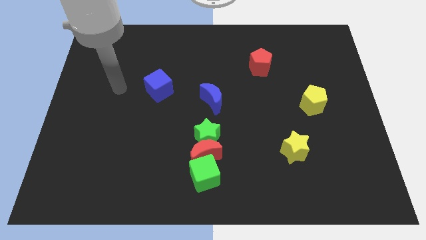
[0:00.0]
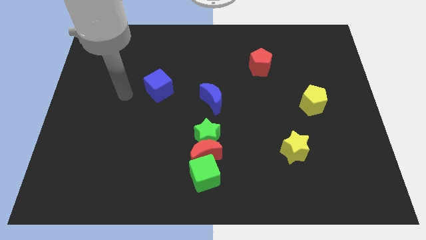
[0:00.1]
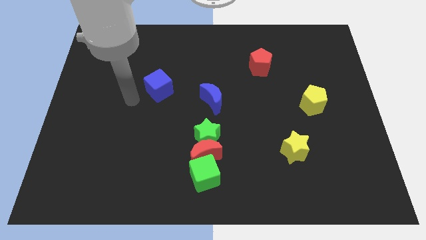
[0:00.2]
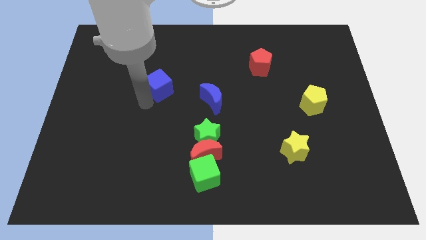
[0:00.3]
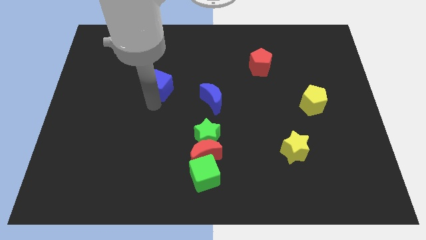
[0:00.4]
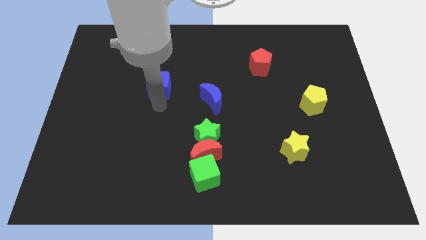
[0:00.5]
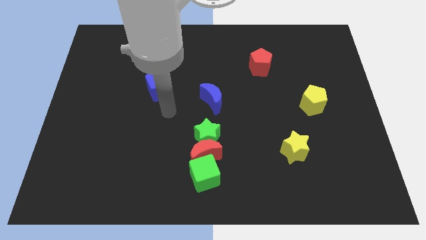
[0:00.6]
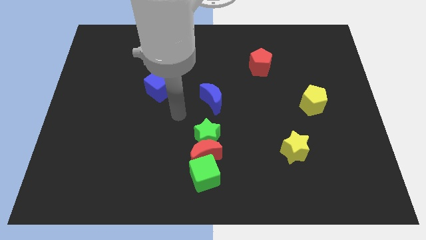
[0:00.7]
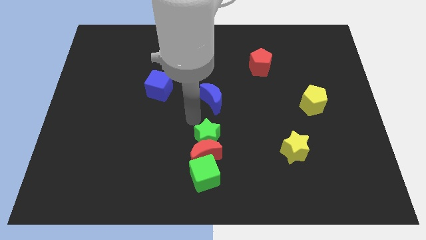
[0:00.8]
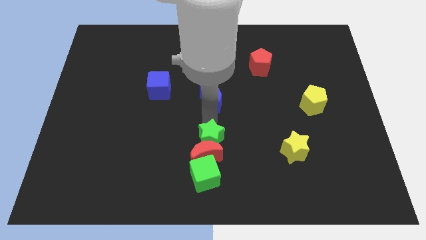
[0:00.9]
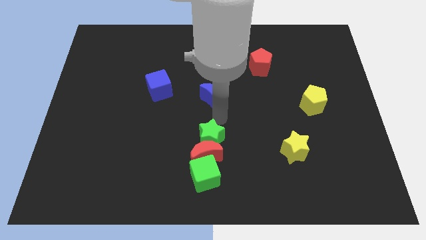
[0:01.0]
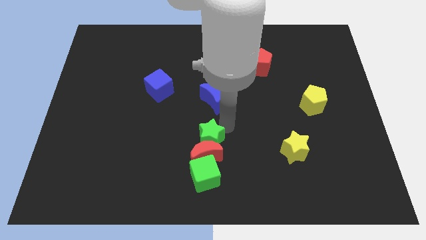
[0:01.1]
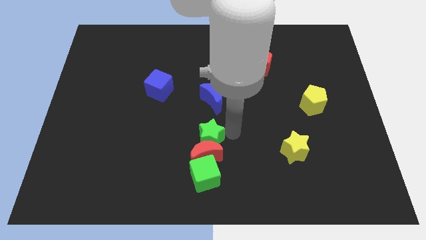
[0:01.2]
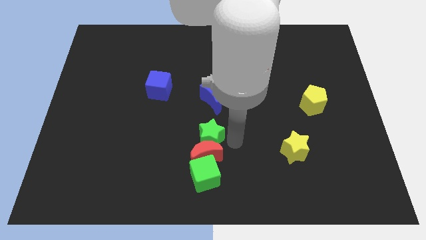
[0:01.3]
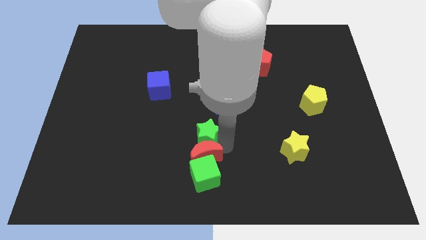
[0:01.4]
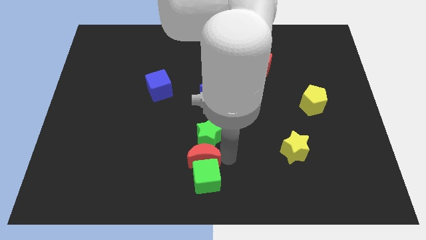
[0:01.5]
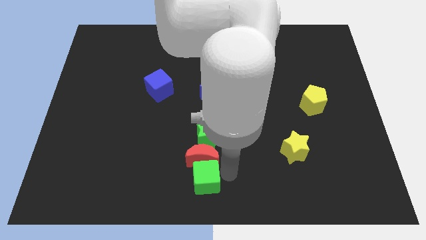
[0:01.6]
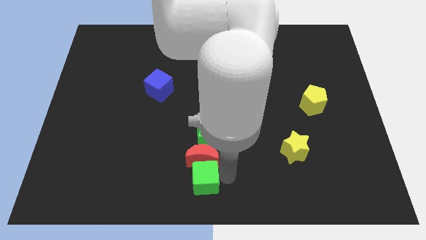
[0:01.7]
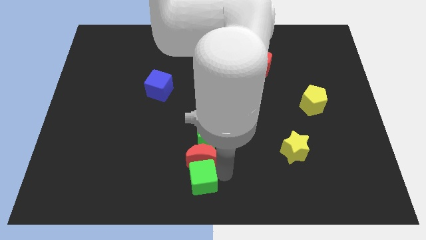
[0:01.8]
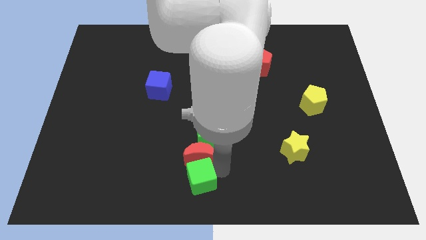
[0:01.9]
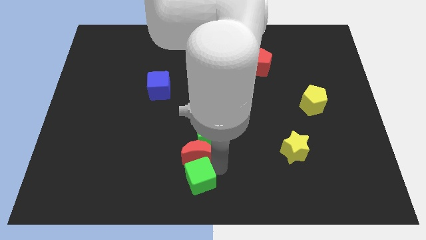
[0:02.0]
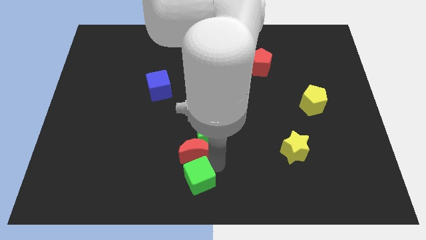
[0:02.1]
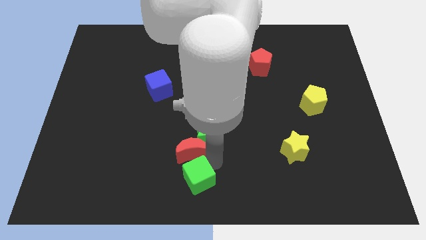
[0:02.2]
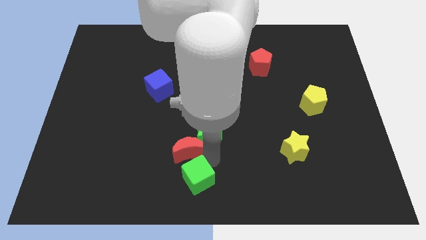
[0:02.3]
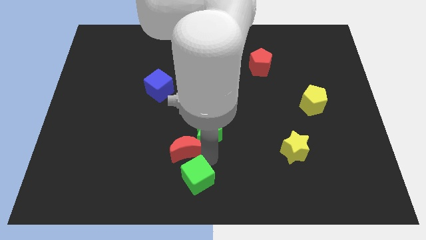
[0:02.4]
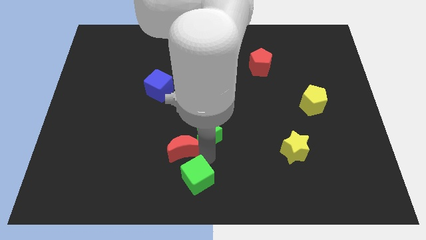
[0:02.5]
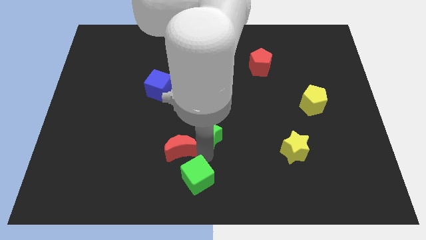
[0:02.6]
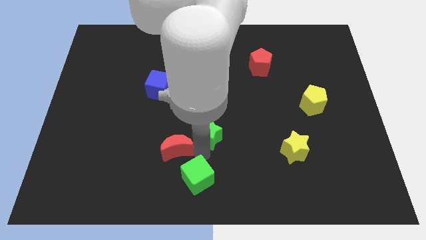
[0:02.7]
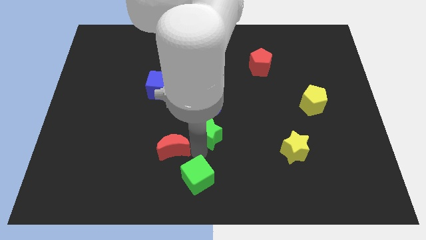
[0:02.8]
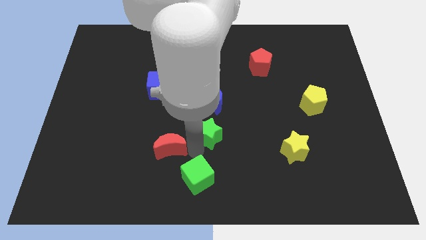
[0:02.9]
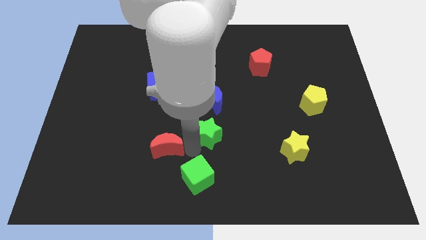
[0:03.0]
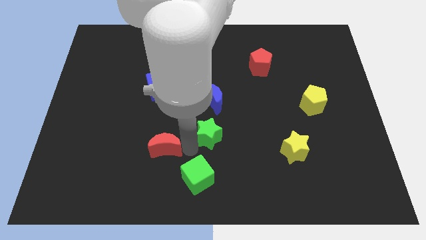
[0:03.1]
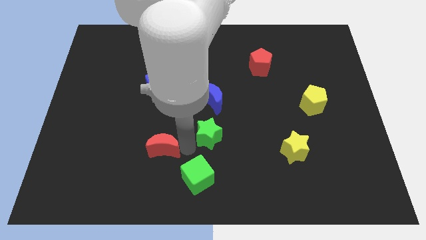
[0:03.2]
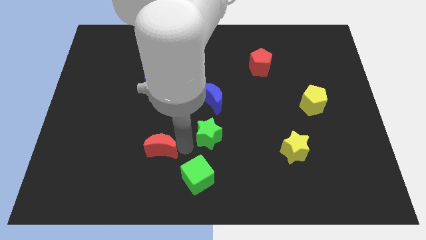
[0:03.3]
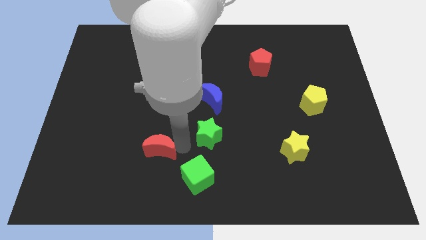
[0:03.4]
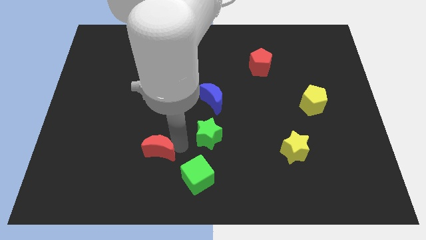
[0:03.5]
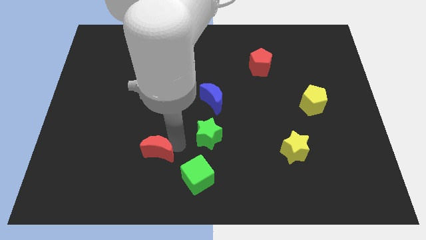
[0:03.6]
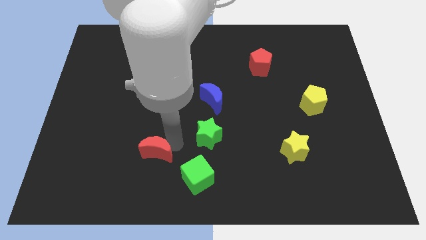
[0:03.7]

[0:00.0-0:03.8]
separate the red moon from the green star and green cube

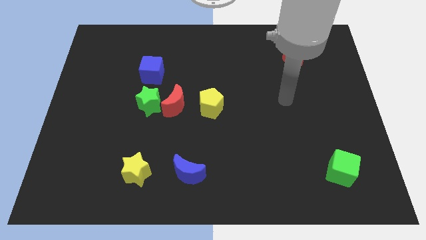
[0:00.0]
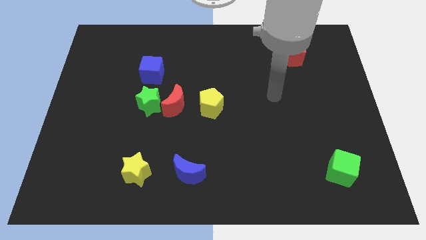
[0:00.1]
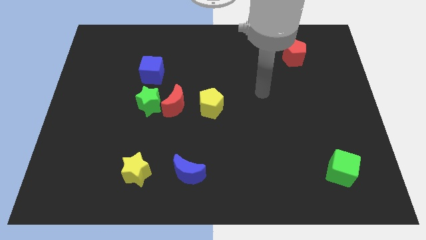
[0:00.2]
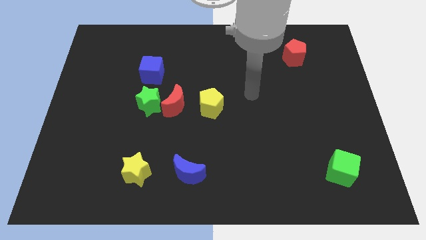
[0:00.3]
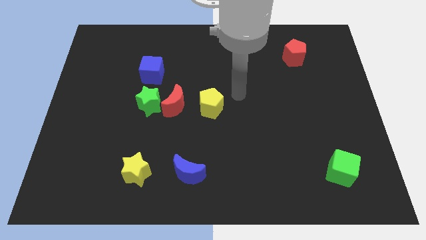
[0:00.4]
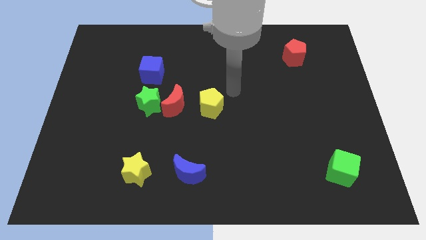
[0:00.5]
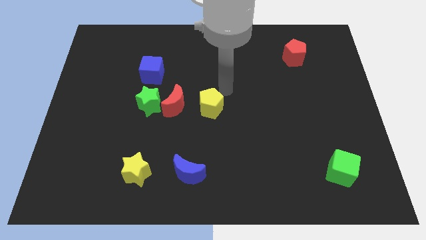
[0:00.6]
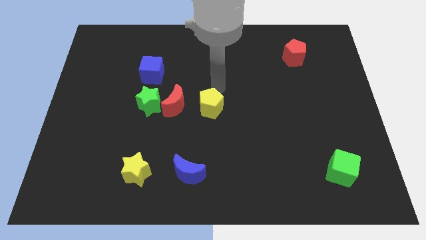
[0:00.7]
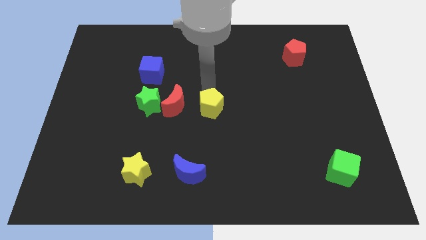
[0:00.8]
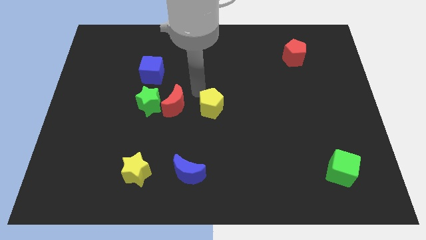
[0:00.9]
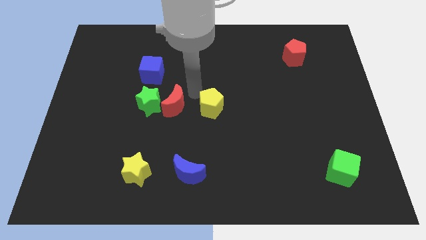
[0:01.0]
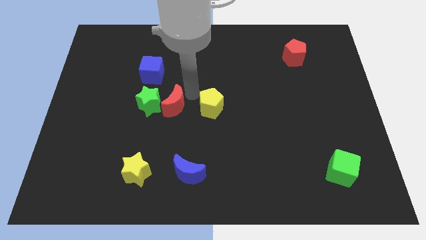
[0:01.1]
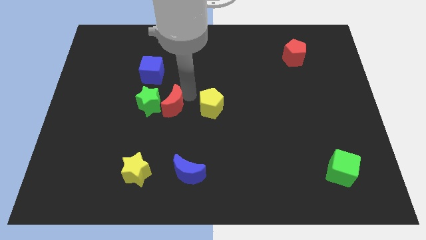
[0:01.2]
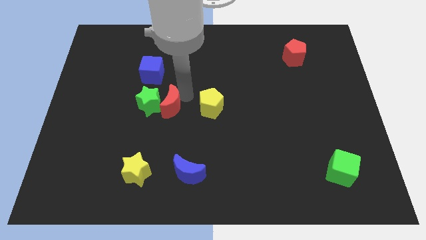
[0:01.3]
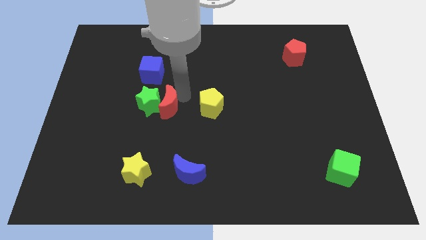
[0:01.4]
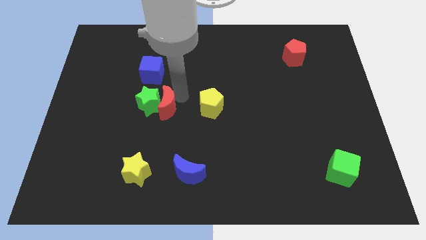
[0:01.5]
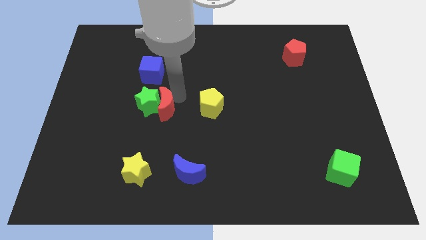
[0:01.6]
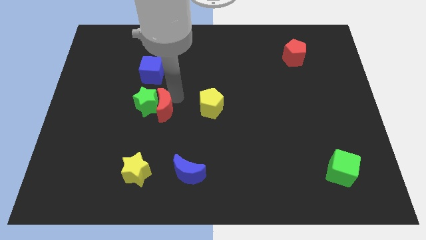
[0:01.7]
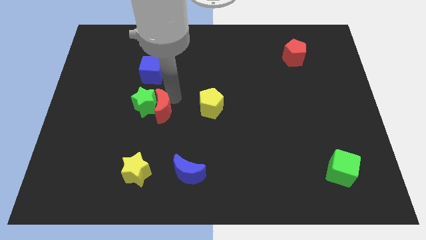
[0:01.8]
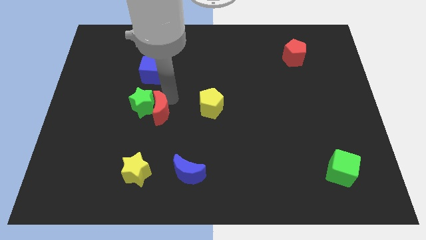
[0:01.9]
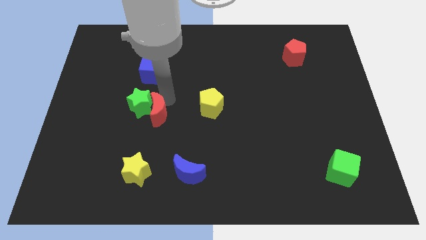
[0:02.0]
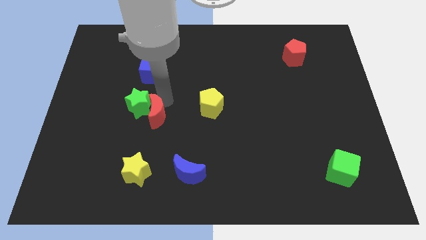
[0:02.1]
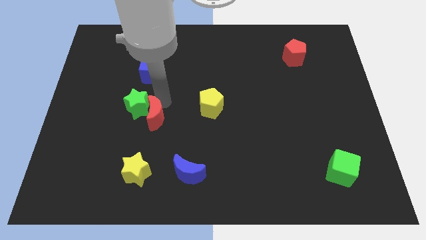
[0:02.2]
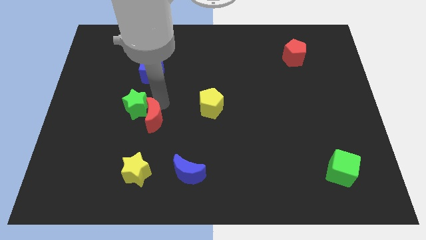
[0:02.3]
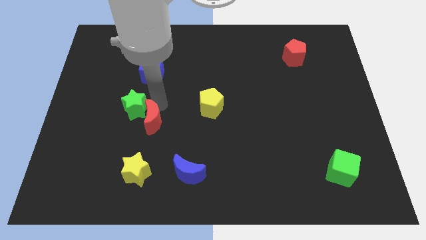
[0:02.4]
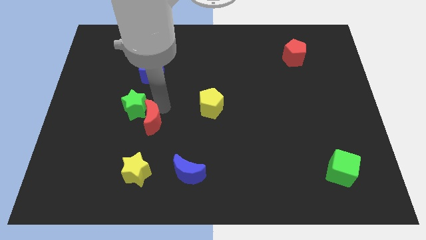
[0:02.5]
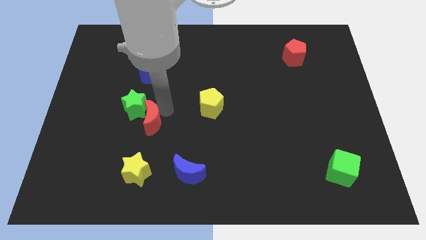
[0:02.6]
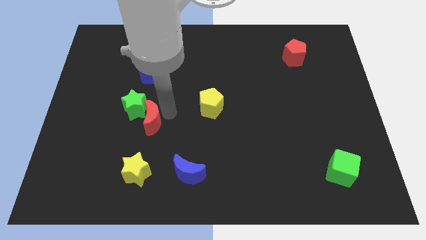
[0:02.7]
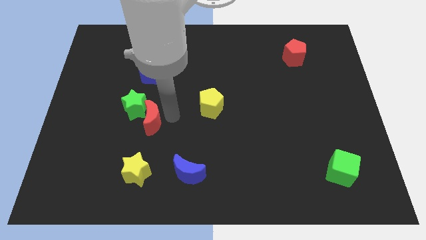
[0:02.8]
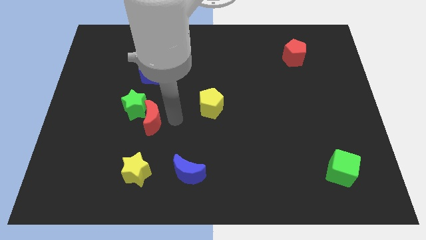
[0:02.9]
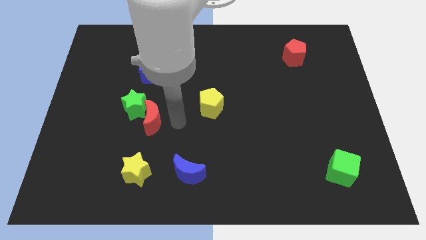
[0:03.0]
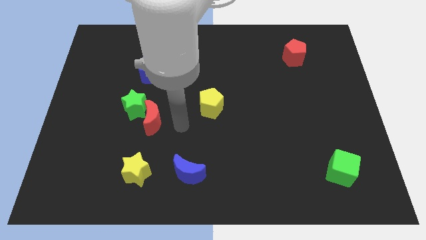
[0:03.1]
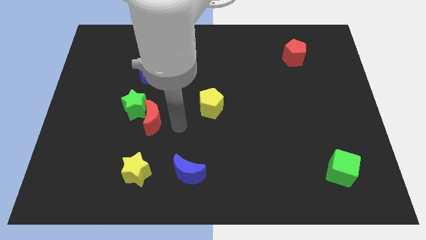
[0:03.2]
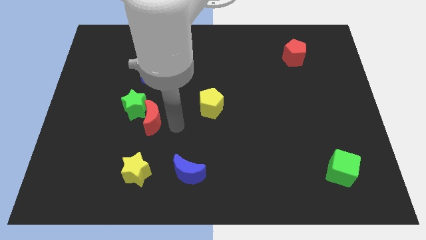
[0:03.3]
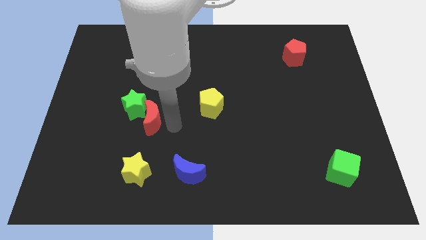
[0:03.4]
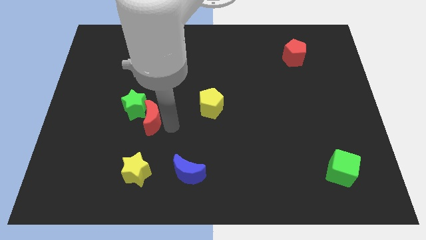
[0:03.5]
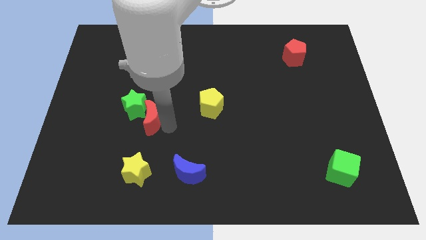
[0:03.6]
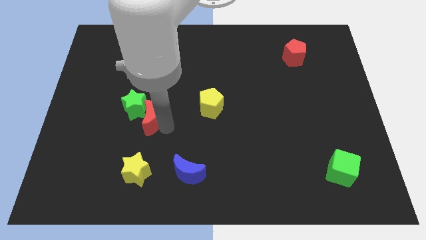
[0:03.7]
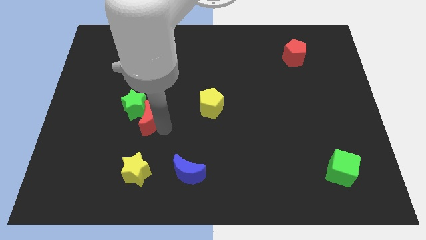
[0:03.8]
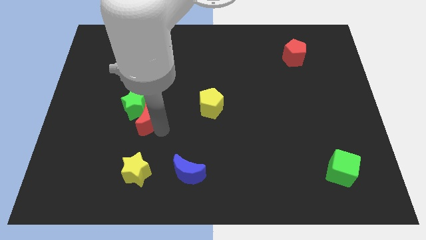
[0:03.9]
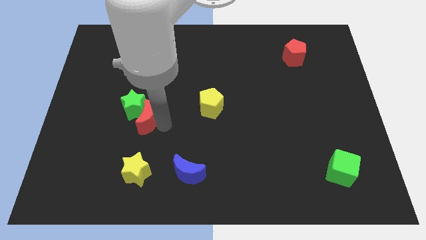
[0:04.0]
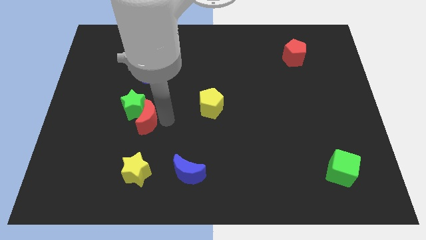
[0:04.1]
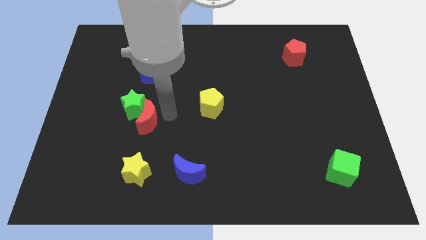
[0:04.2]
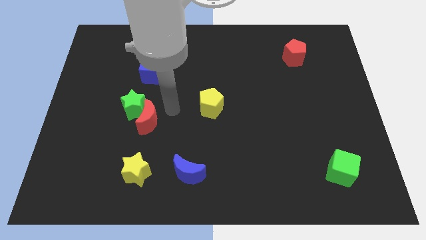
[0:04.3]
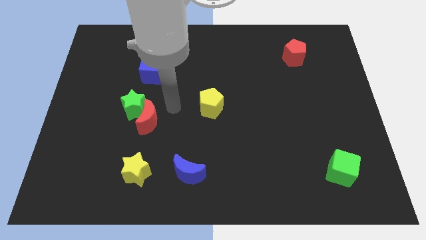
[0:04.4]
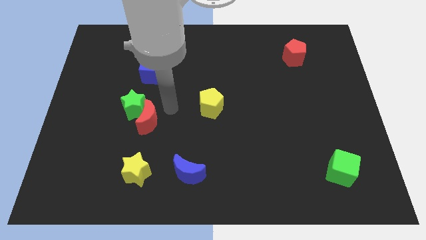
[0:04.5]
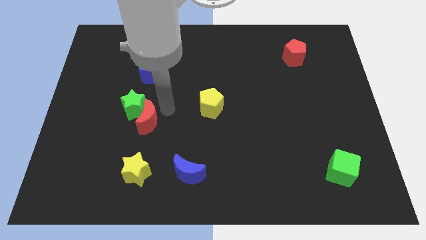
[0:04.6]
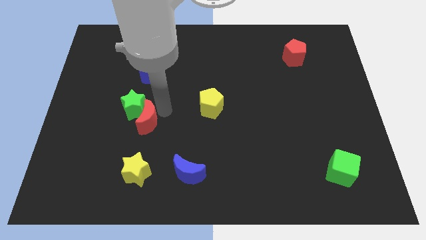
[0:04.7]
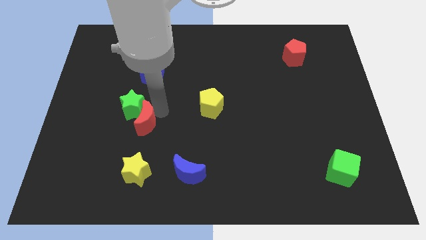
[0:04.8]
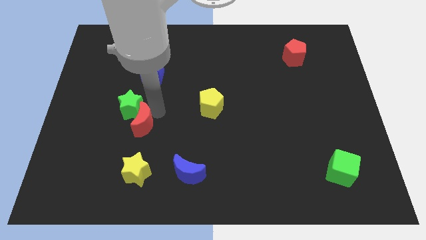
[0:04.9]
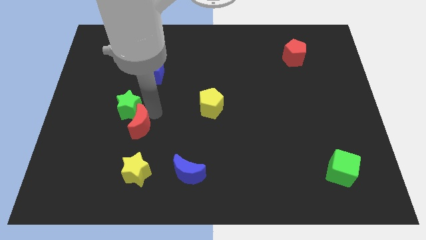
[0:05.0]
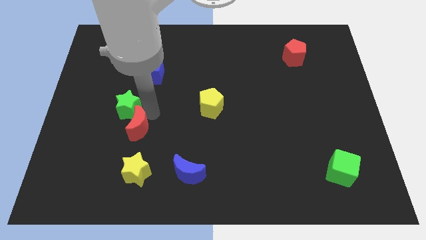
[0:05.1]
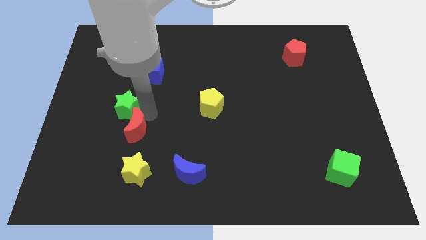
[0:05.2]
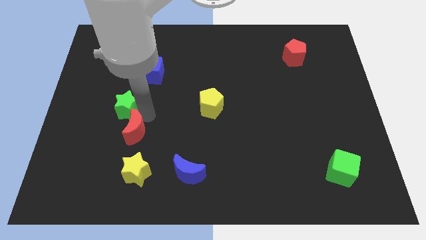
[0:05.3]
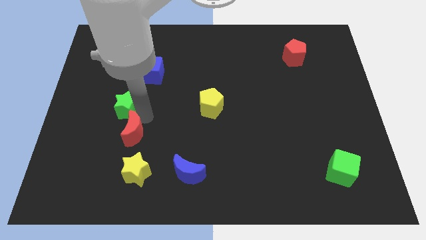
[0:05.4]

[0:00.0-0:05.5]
separate the red moon from the green star and yellow pentagon

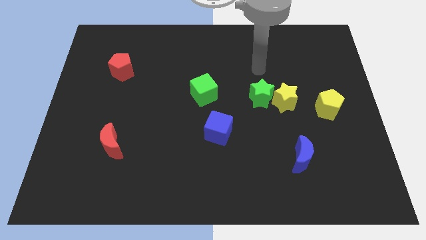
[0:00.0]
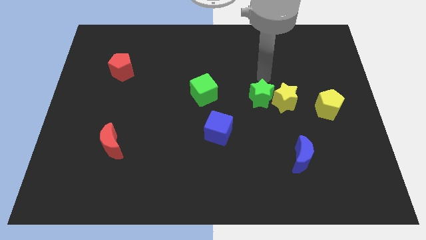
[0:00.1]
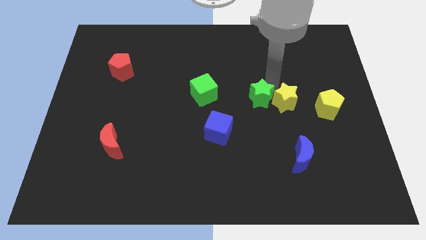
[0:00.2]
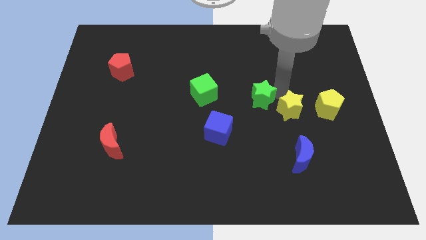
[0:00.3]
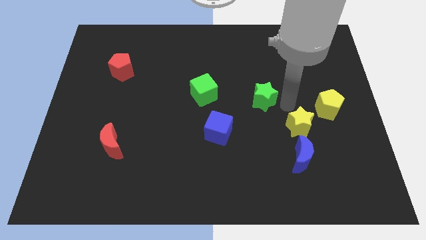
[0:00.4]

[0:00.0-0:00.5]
pull the green star apart from the yellow star
